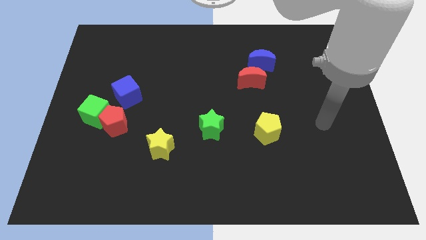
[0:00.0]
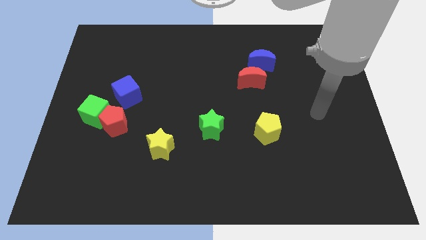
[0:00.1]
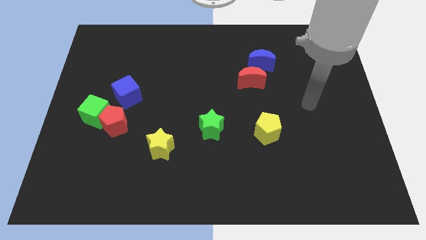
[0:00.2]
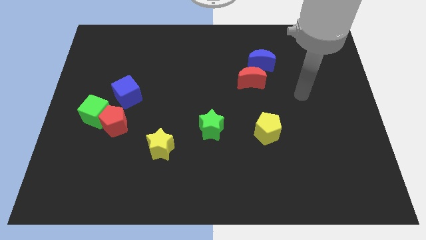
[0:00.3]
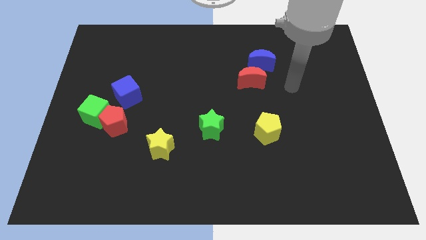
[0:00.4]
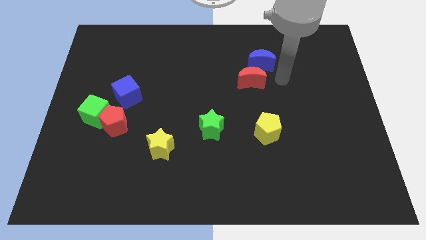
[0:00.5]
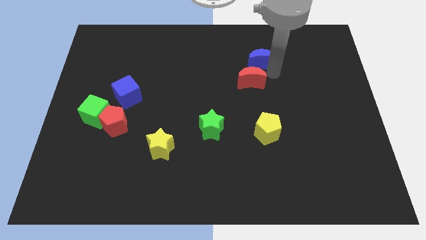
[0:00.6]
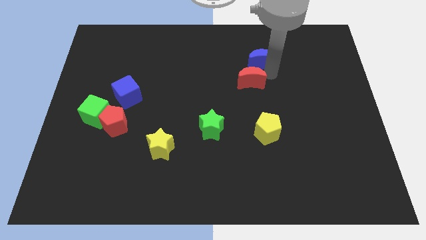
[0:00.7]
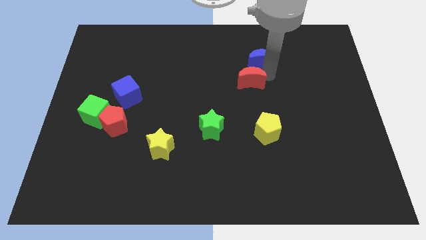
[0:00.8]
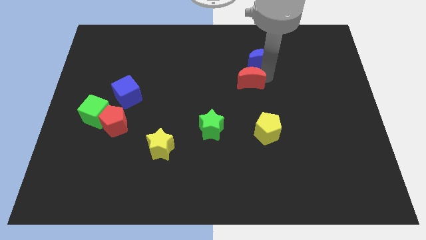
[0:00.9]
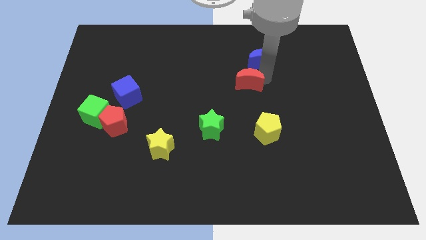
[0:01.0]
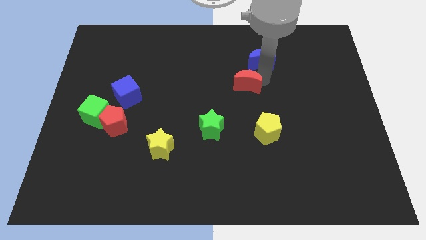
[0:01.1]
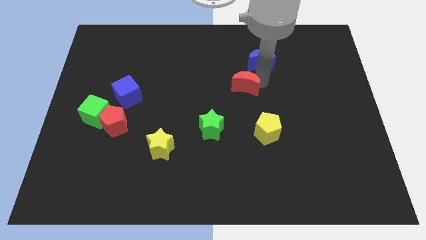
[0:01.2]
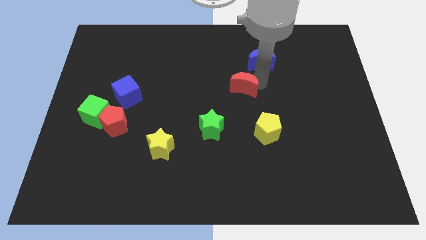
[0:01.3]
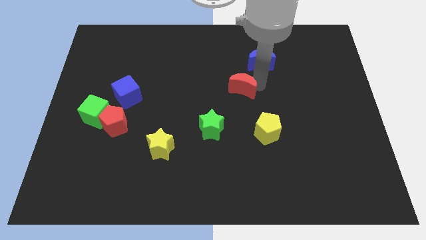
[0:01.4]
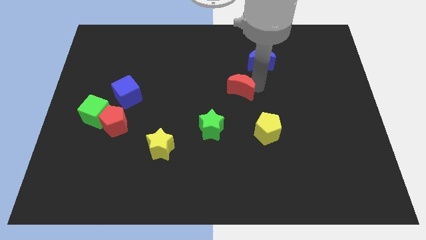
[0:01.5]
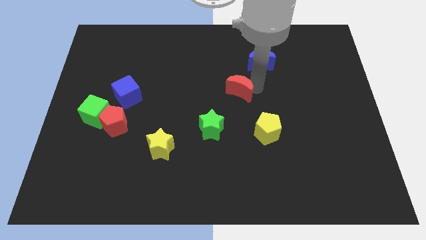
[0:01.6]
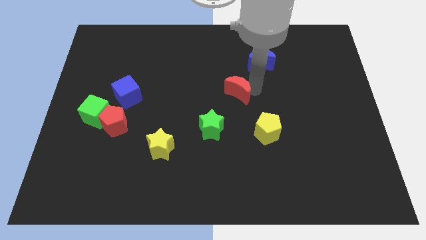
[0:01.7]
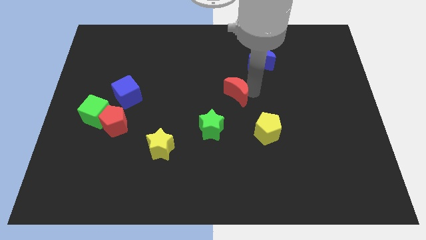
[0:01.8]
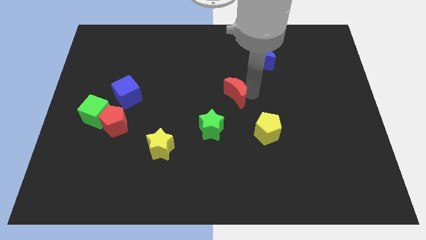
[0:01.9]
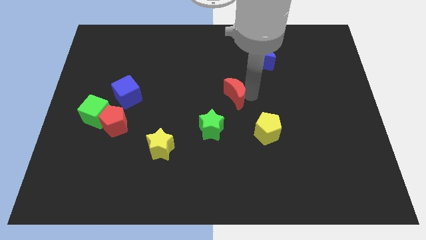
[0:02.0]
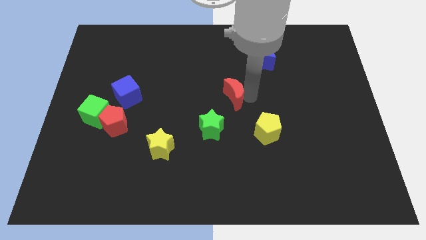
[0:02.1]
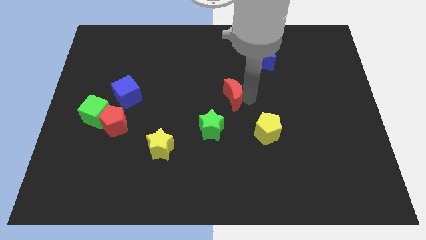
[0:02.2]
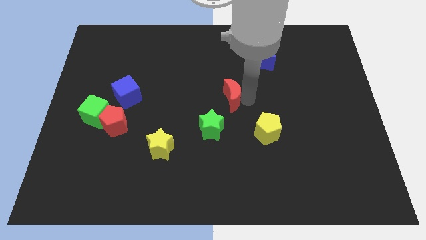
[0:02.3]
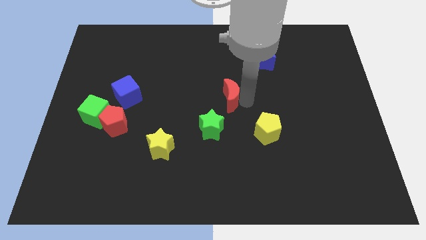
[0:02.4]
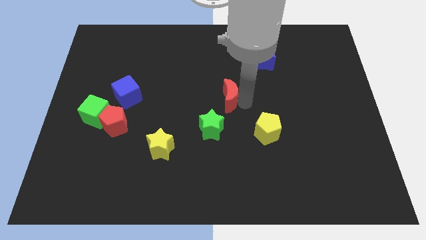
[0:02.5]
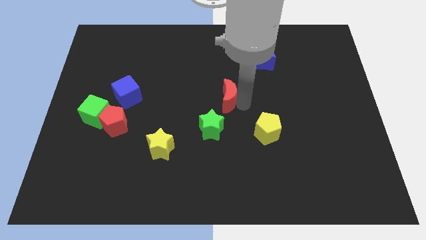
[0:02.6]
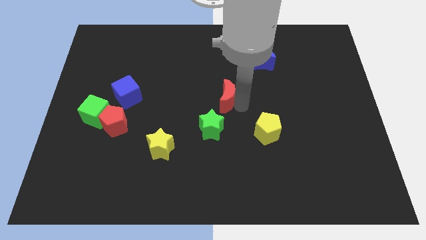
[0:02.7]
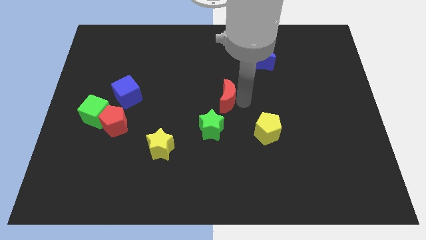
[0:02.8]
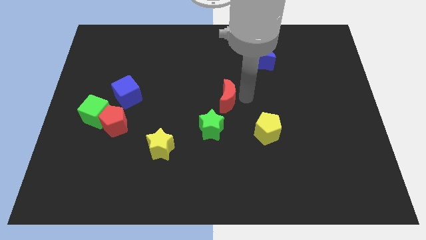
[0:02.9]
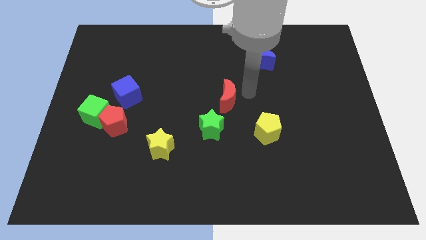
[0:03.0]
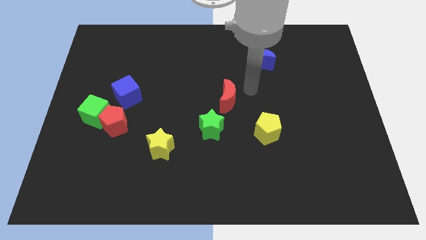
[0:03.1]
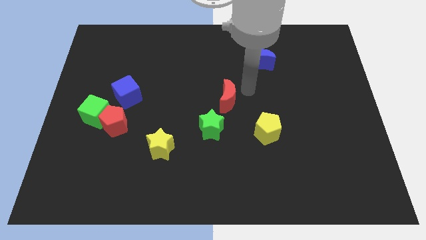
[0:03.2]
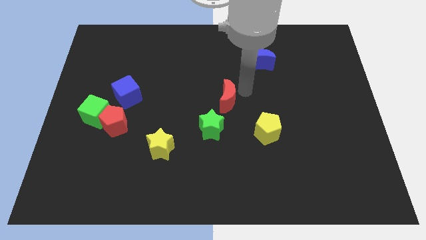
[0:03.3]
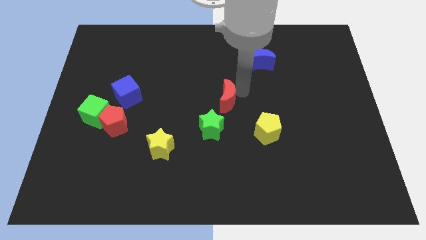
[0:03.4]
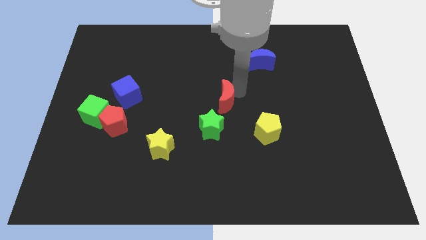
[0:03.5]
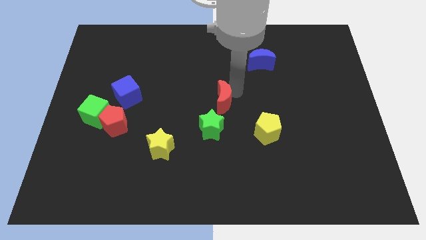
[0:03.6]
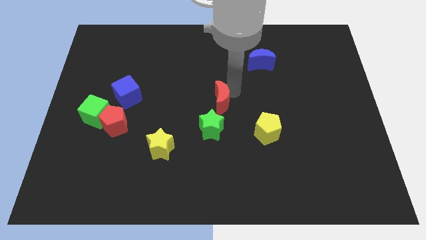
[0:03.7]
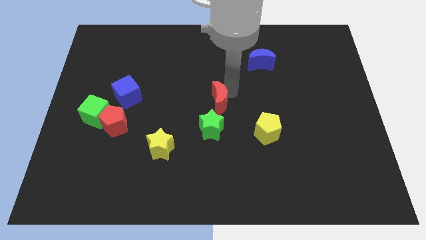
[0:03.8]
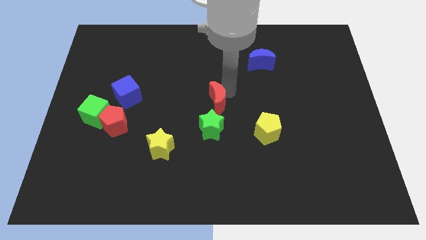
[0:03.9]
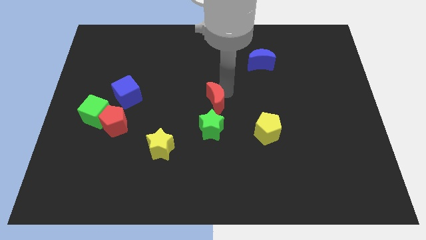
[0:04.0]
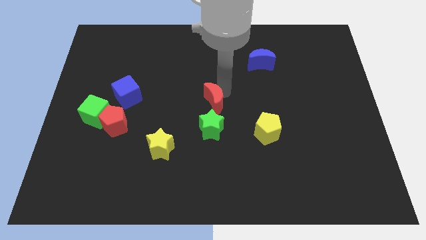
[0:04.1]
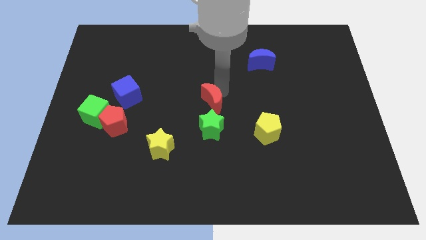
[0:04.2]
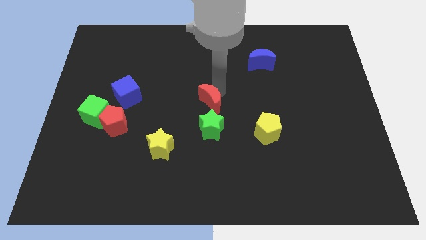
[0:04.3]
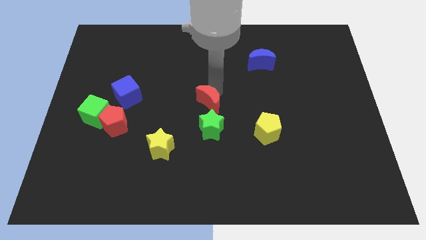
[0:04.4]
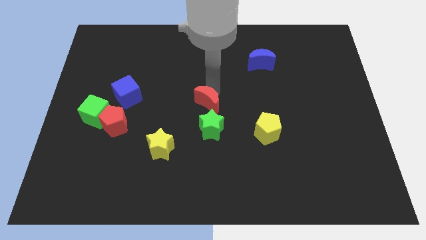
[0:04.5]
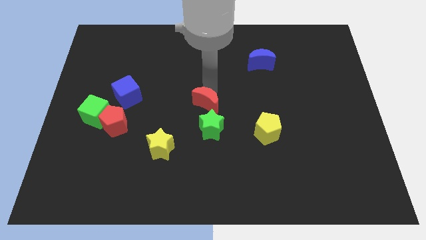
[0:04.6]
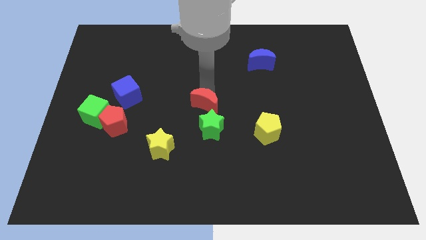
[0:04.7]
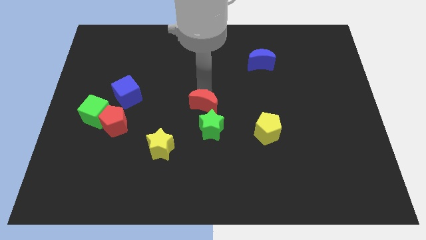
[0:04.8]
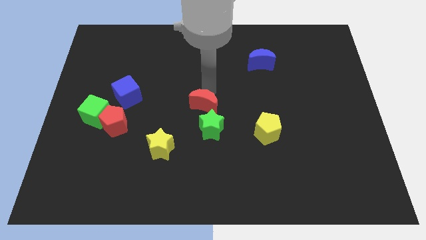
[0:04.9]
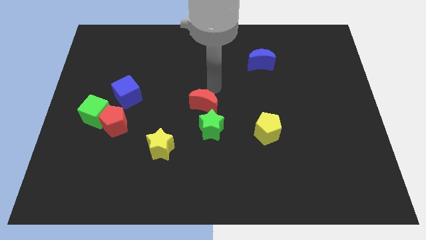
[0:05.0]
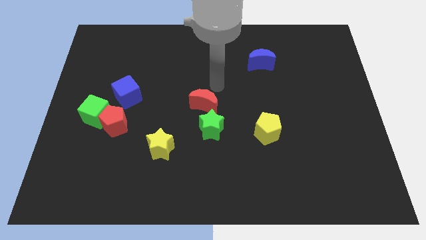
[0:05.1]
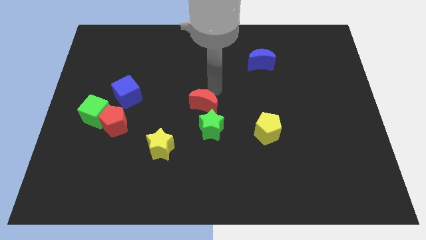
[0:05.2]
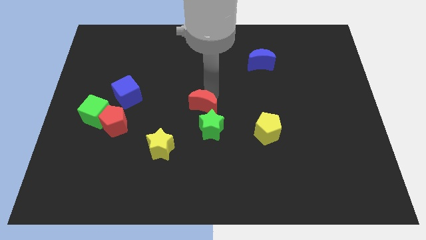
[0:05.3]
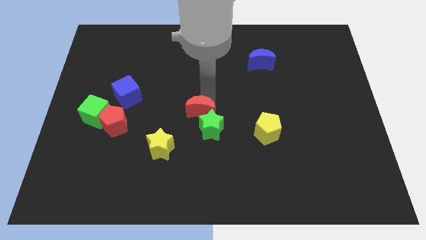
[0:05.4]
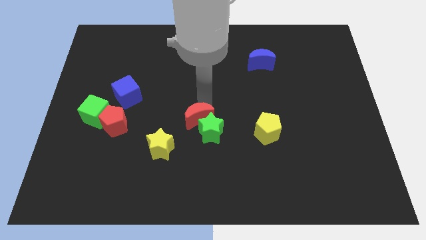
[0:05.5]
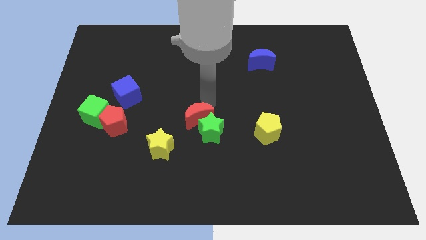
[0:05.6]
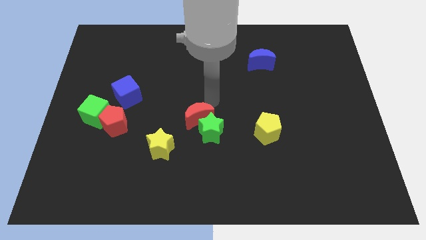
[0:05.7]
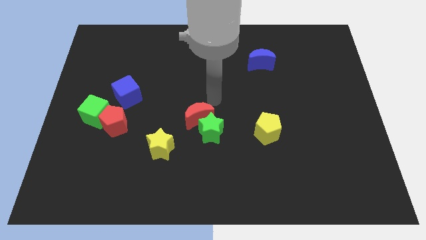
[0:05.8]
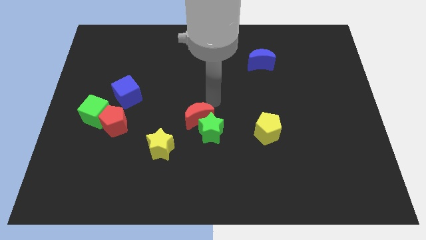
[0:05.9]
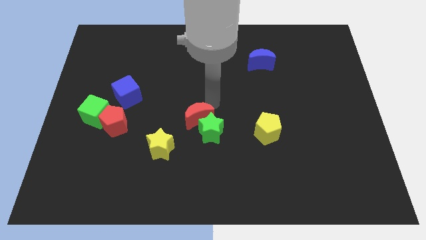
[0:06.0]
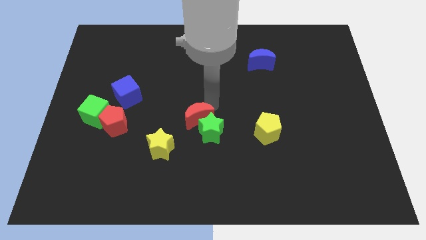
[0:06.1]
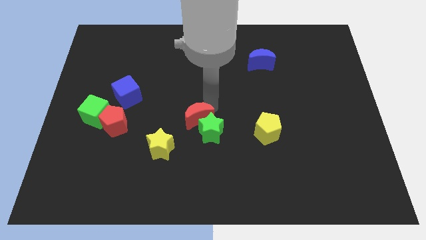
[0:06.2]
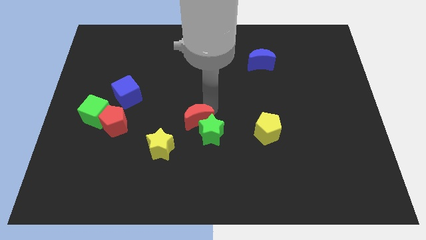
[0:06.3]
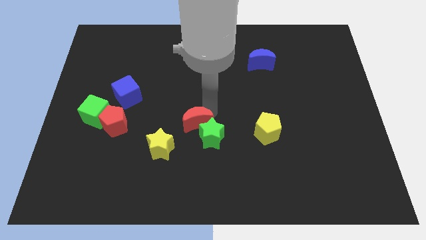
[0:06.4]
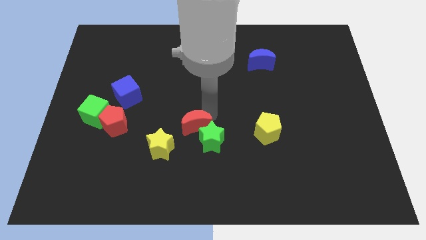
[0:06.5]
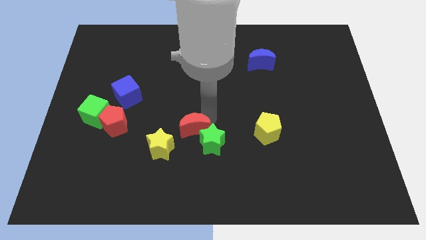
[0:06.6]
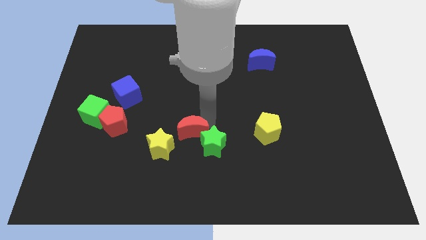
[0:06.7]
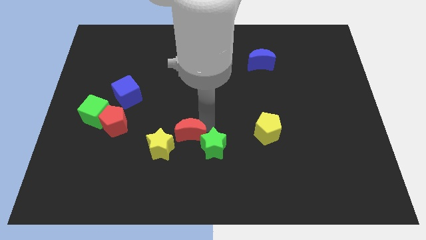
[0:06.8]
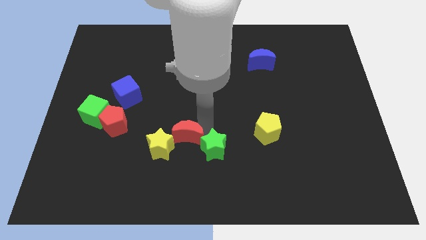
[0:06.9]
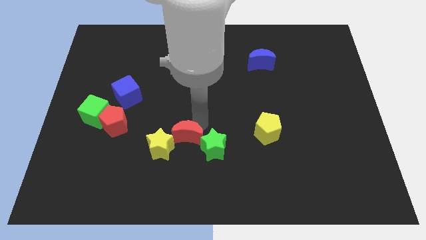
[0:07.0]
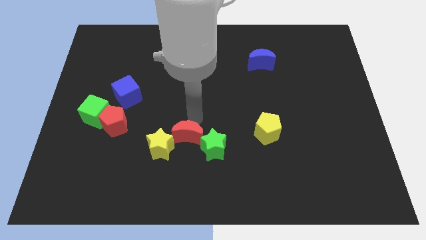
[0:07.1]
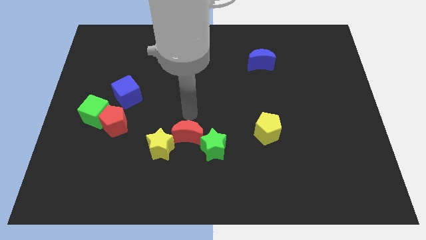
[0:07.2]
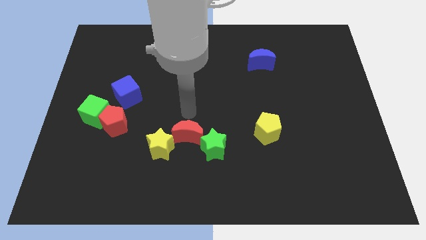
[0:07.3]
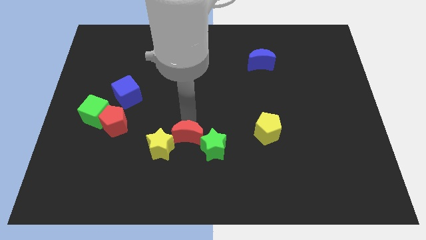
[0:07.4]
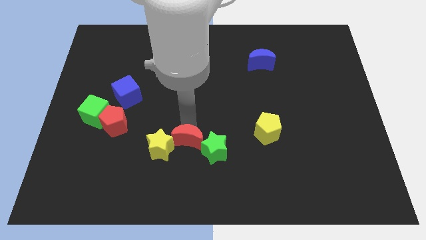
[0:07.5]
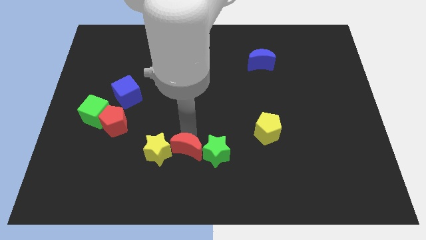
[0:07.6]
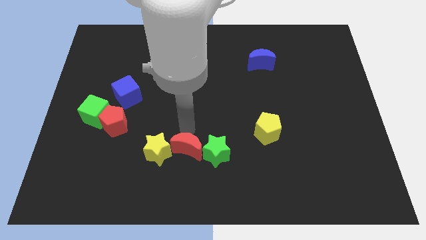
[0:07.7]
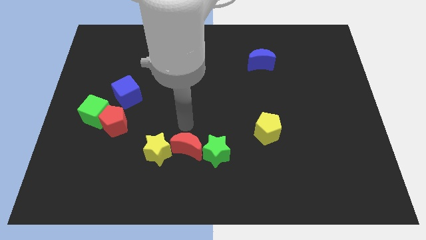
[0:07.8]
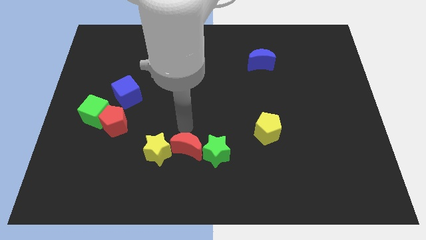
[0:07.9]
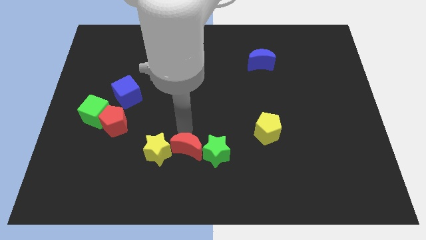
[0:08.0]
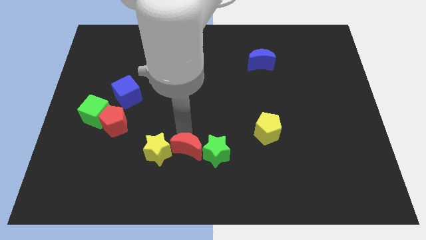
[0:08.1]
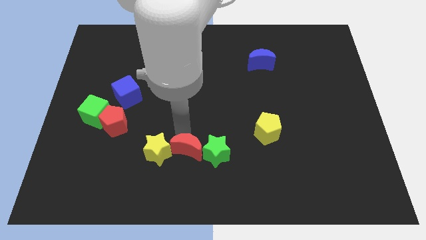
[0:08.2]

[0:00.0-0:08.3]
push the red moon to the bottom left of the green star
